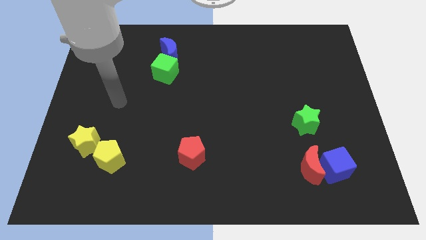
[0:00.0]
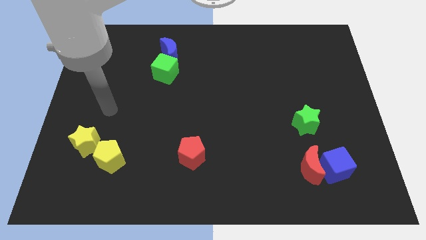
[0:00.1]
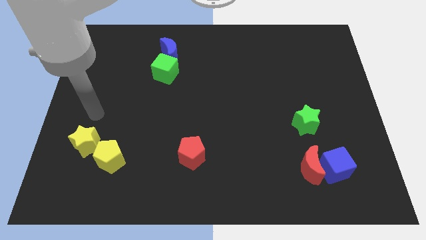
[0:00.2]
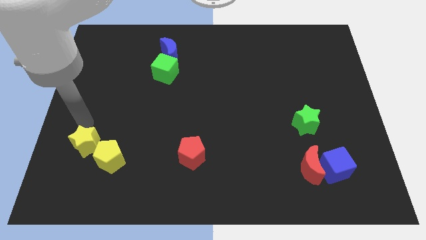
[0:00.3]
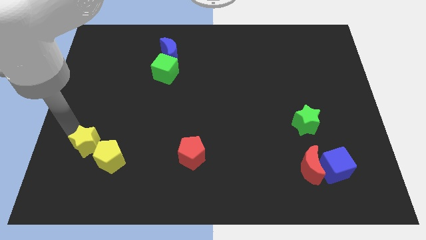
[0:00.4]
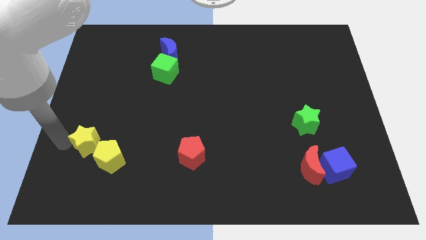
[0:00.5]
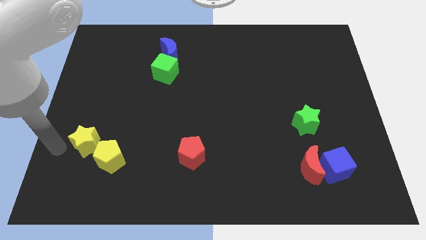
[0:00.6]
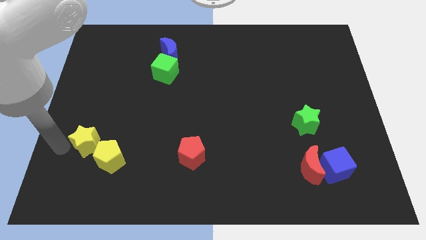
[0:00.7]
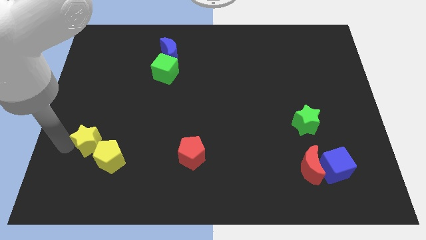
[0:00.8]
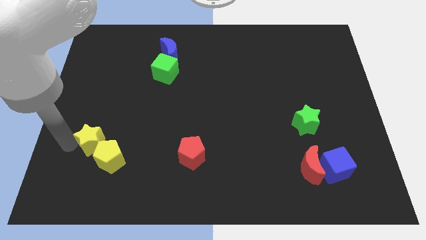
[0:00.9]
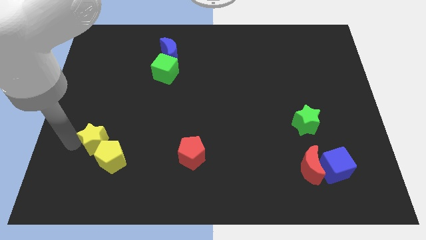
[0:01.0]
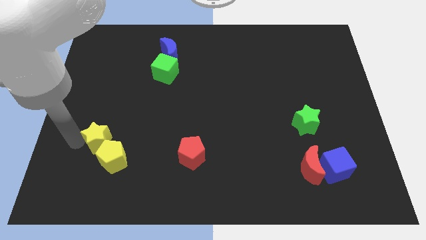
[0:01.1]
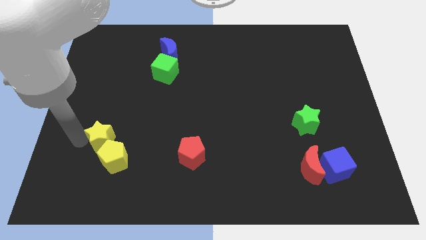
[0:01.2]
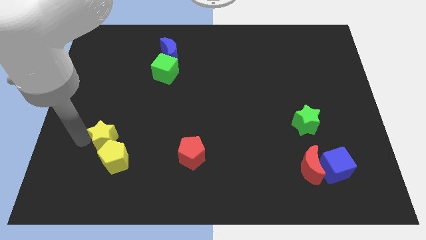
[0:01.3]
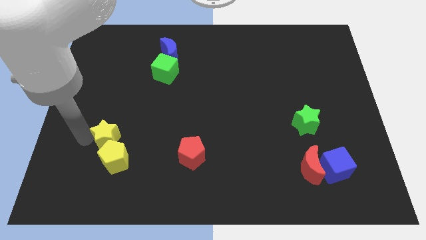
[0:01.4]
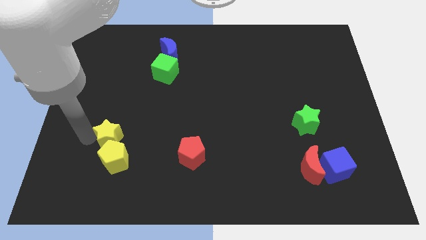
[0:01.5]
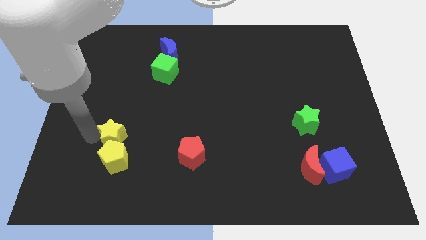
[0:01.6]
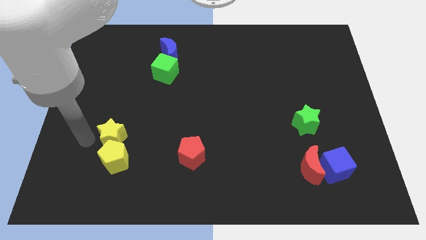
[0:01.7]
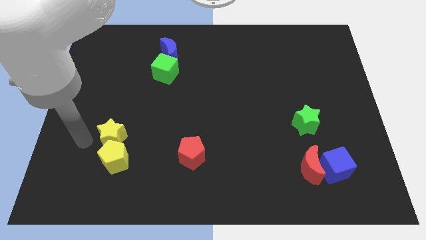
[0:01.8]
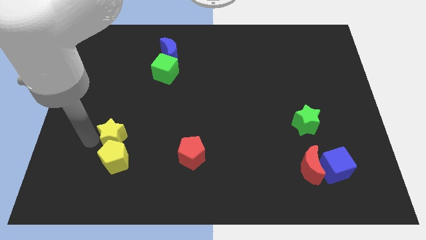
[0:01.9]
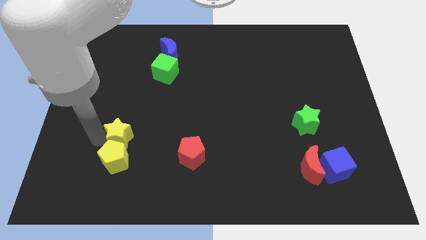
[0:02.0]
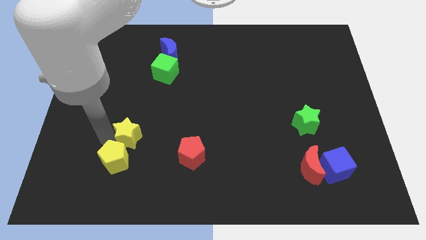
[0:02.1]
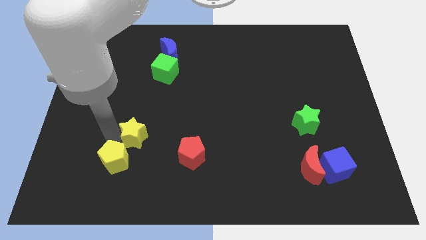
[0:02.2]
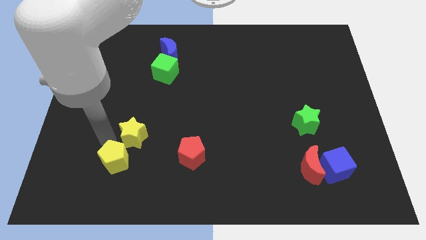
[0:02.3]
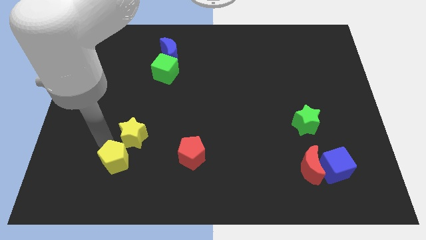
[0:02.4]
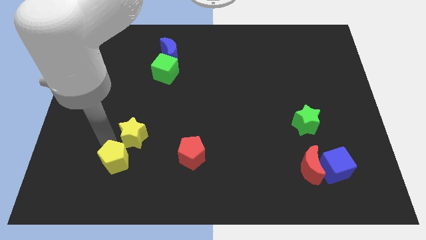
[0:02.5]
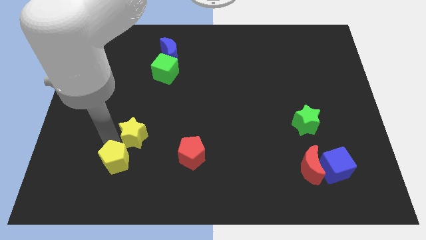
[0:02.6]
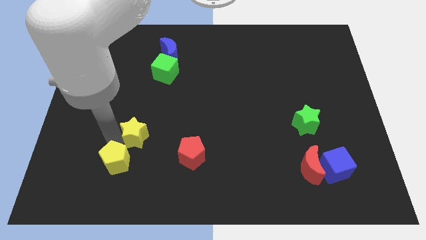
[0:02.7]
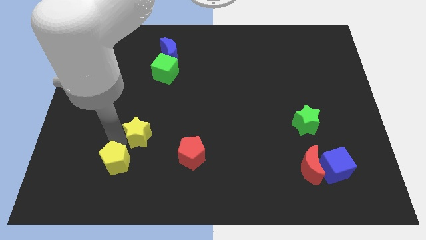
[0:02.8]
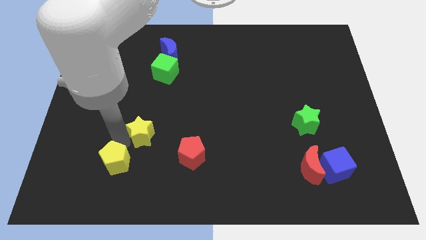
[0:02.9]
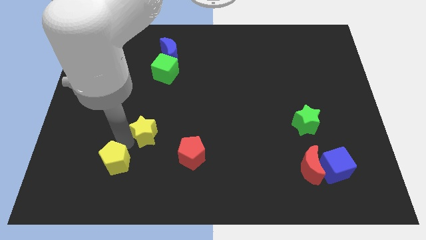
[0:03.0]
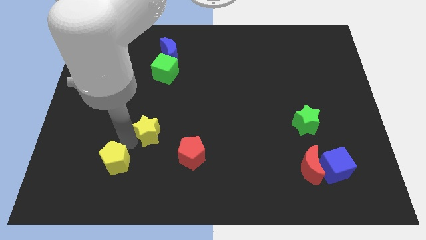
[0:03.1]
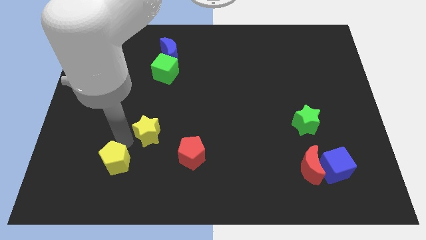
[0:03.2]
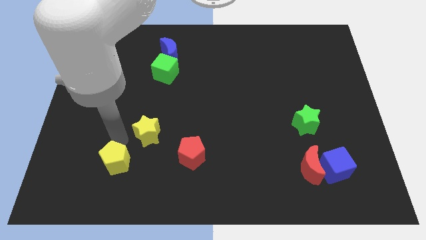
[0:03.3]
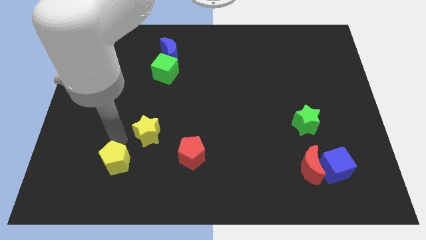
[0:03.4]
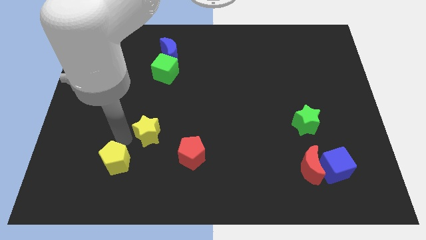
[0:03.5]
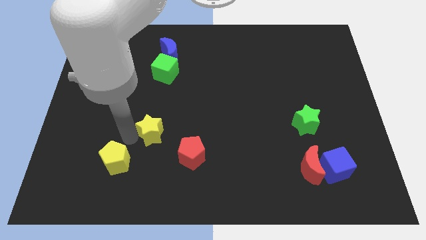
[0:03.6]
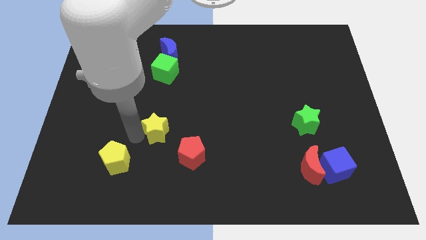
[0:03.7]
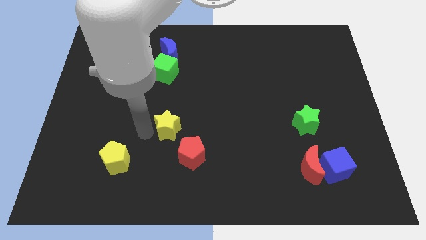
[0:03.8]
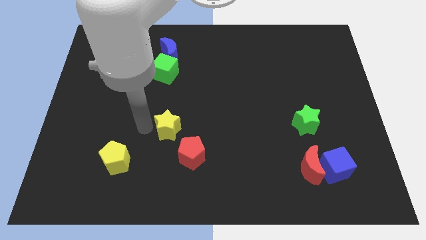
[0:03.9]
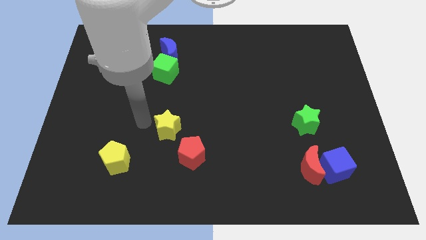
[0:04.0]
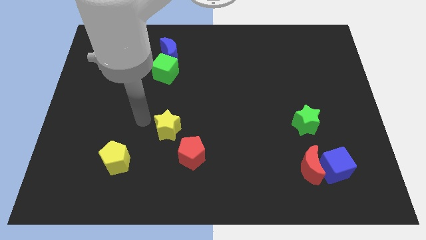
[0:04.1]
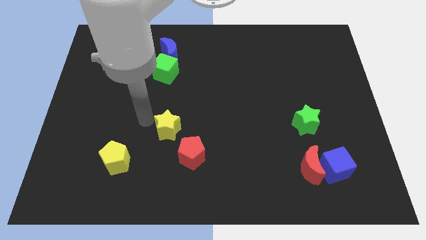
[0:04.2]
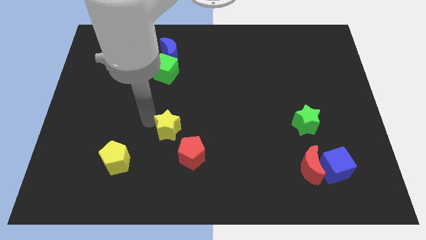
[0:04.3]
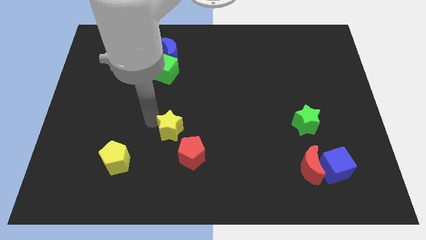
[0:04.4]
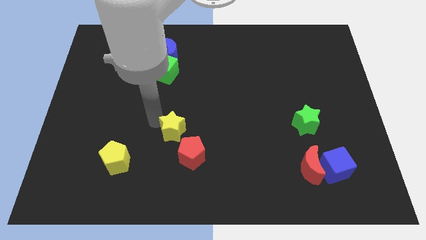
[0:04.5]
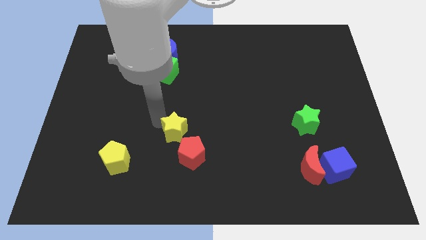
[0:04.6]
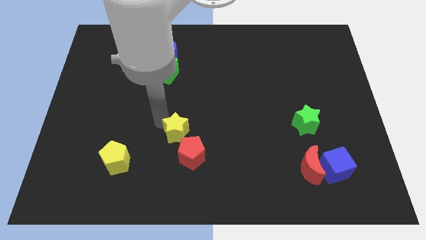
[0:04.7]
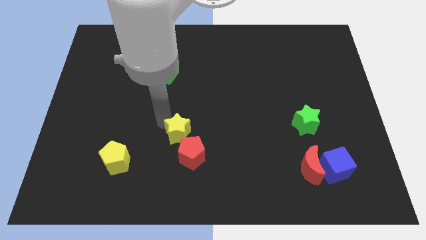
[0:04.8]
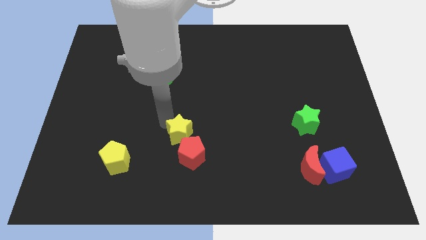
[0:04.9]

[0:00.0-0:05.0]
move the yellow star to the right

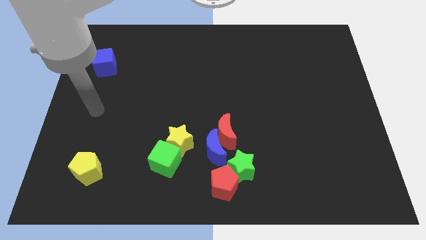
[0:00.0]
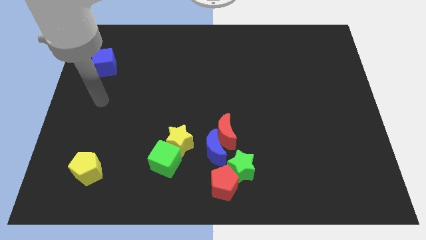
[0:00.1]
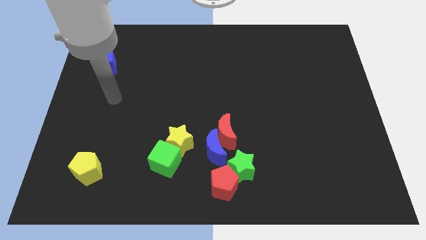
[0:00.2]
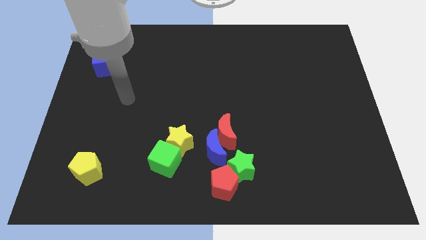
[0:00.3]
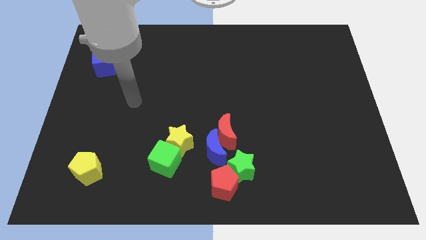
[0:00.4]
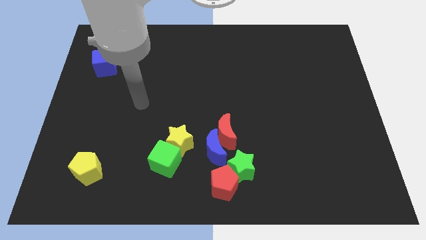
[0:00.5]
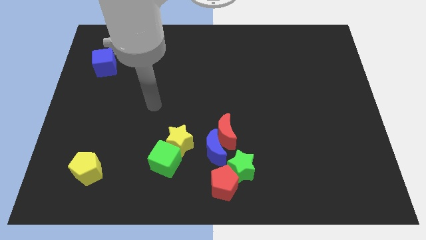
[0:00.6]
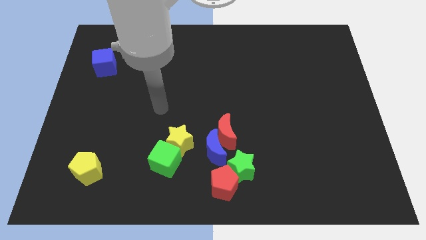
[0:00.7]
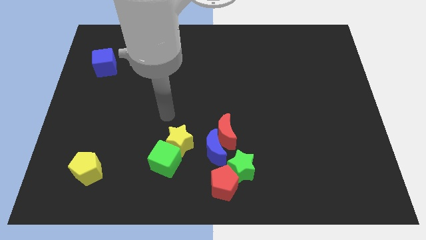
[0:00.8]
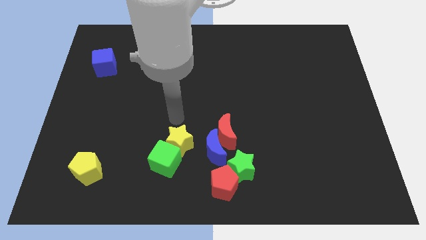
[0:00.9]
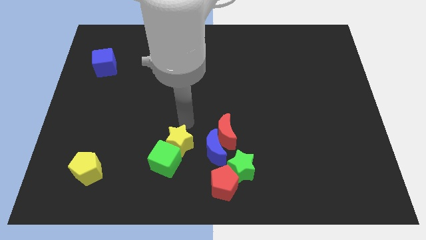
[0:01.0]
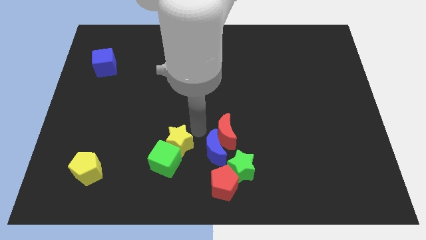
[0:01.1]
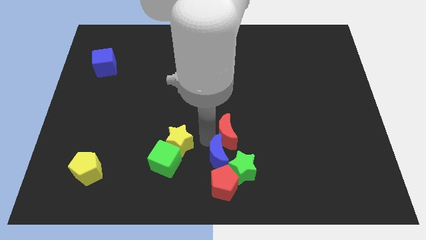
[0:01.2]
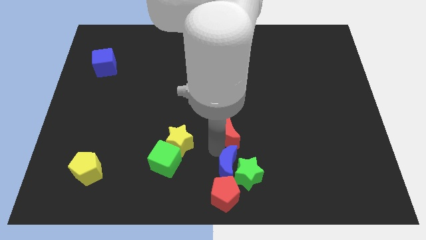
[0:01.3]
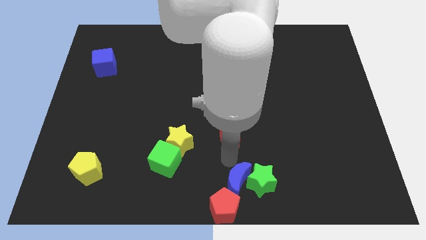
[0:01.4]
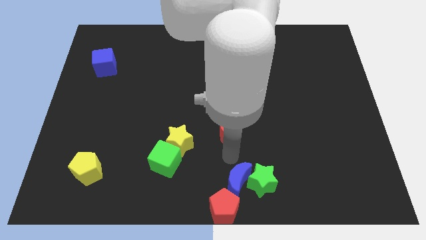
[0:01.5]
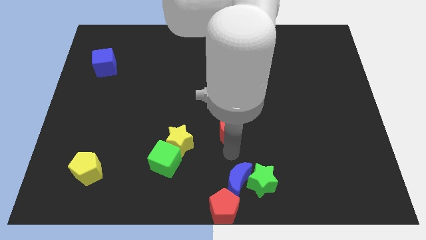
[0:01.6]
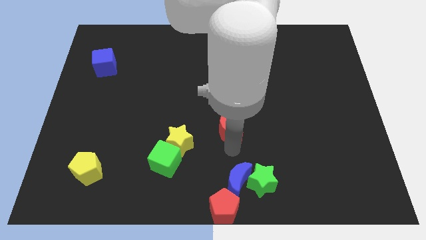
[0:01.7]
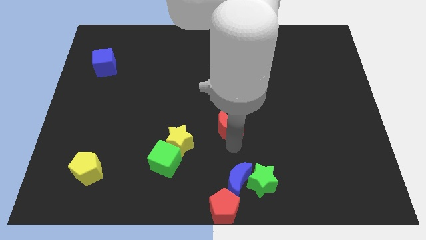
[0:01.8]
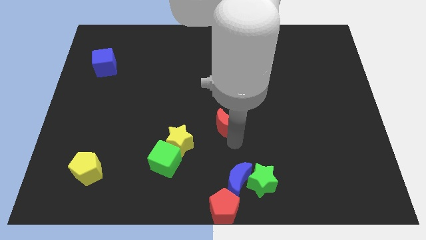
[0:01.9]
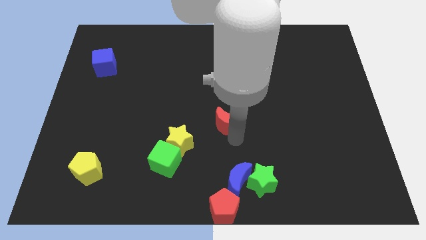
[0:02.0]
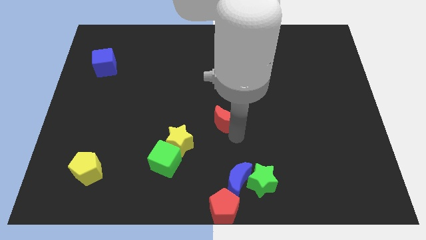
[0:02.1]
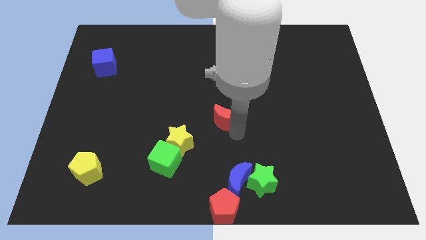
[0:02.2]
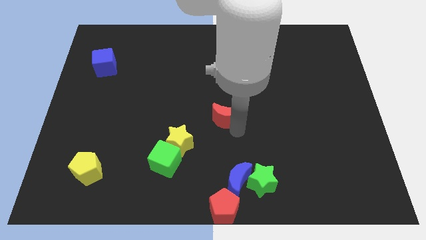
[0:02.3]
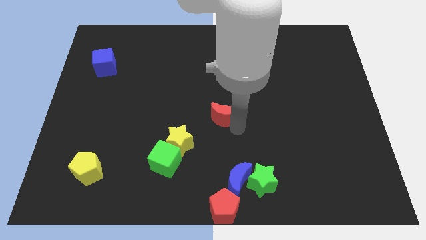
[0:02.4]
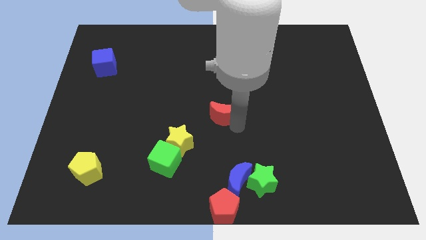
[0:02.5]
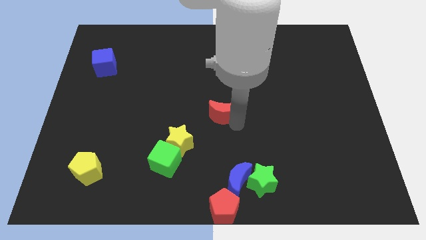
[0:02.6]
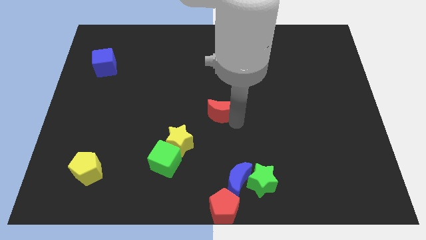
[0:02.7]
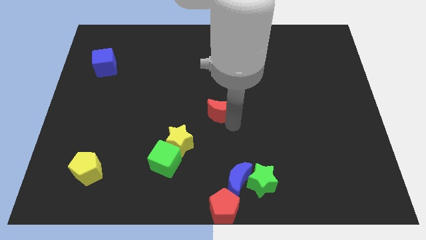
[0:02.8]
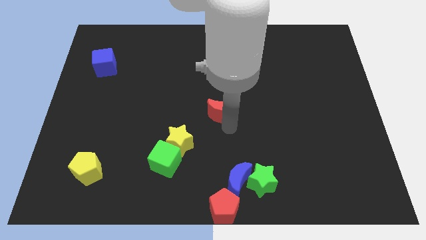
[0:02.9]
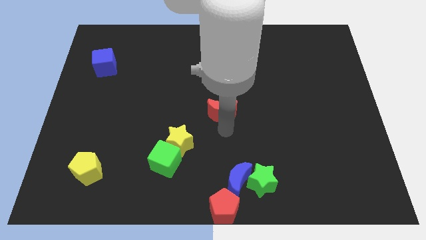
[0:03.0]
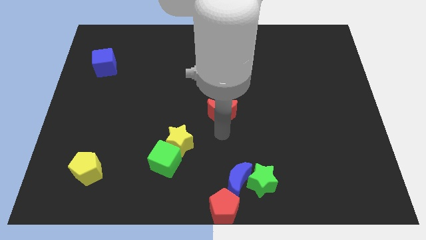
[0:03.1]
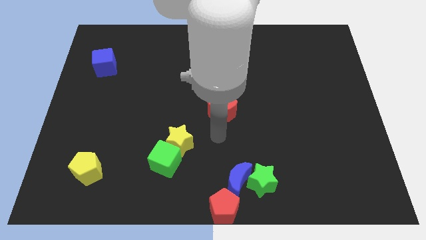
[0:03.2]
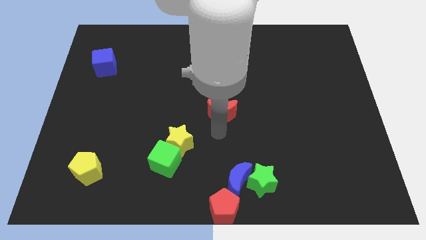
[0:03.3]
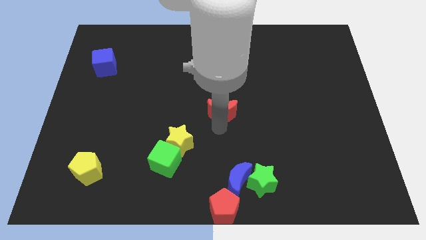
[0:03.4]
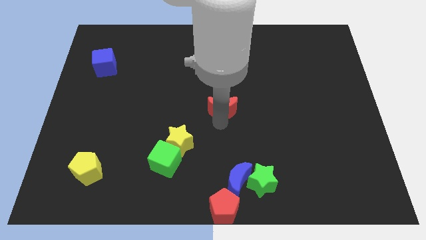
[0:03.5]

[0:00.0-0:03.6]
slightly push the red moon up
